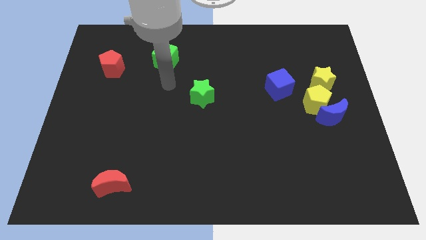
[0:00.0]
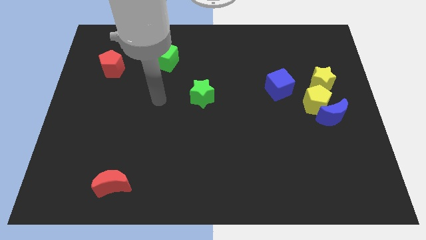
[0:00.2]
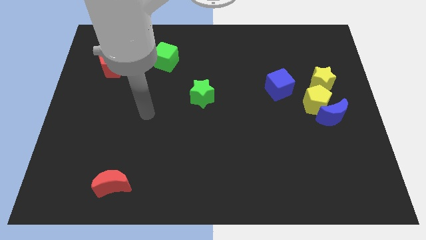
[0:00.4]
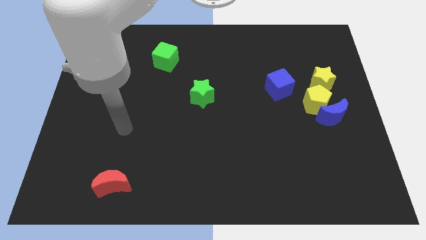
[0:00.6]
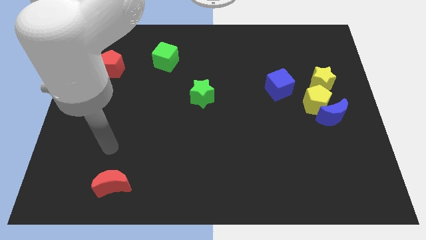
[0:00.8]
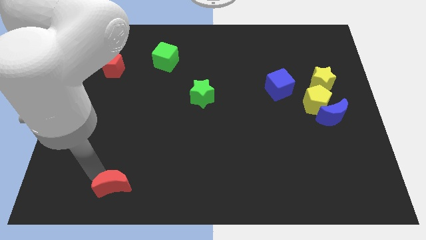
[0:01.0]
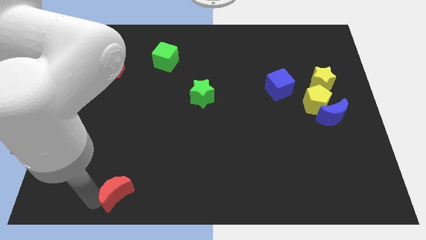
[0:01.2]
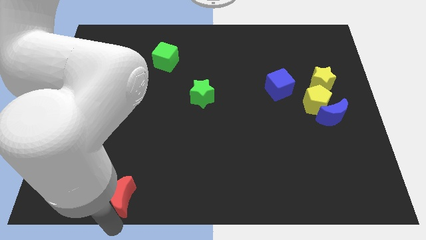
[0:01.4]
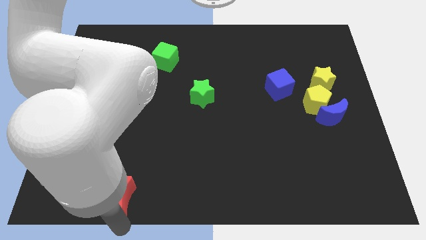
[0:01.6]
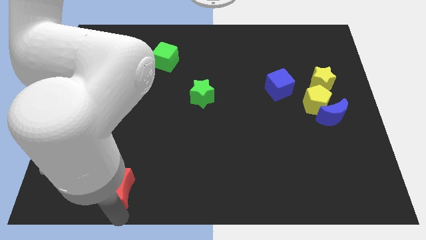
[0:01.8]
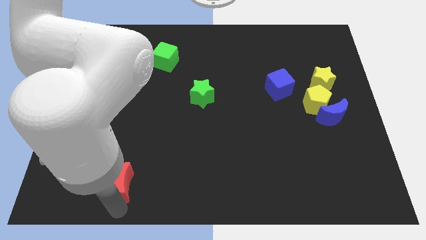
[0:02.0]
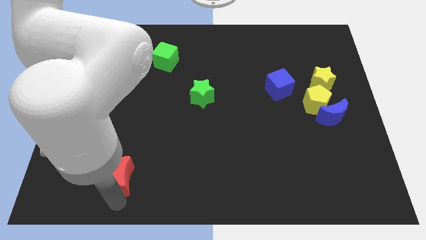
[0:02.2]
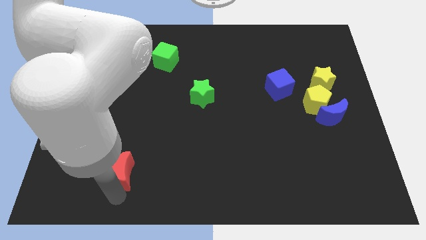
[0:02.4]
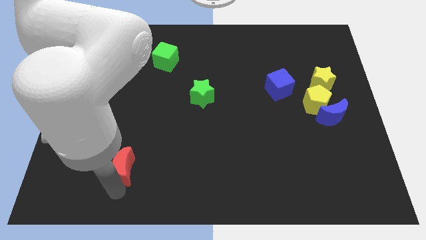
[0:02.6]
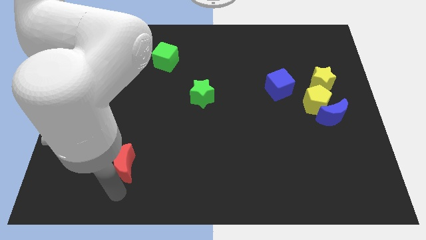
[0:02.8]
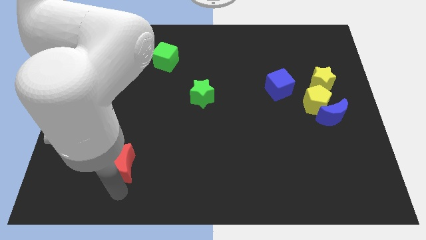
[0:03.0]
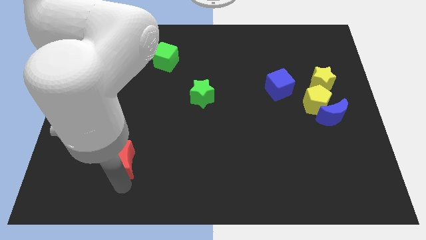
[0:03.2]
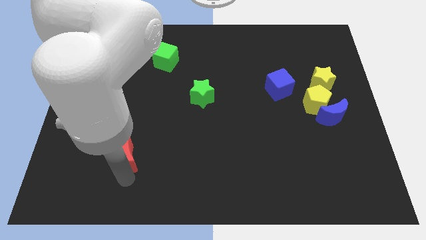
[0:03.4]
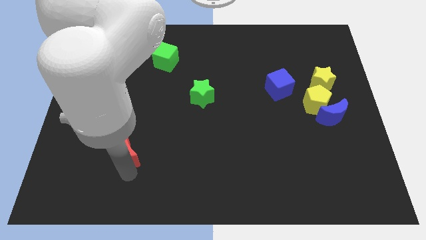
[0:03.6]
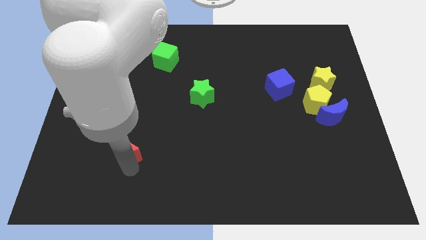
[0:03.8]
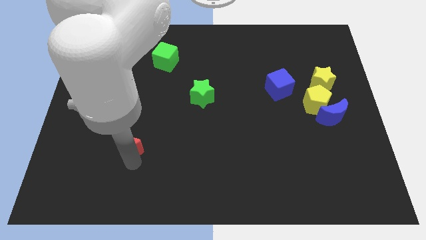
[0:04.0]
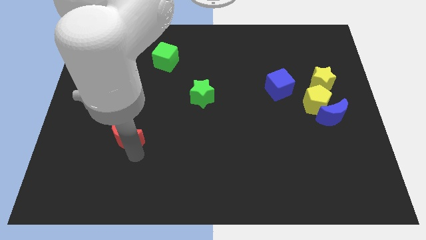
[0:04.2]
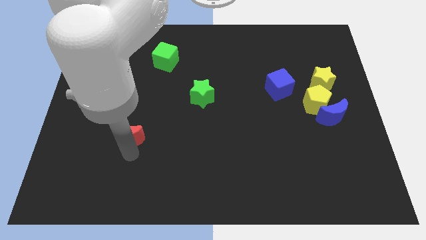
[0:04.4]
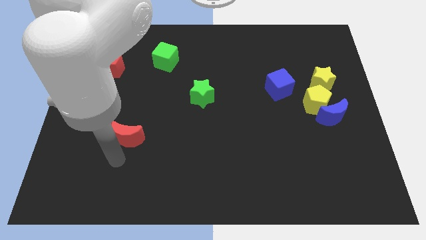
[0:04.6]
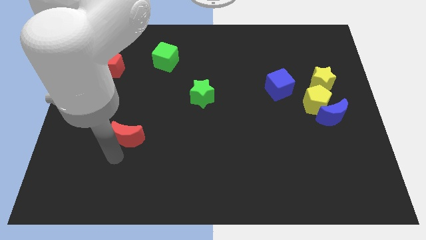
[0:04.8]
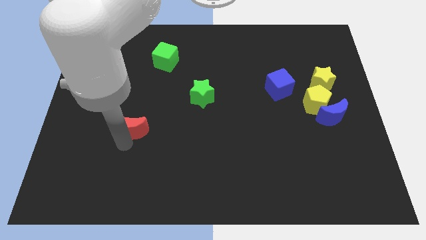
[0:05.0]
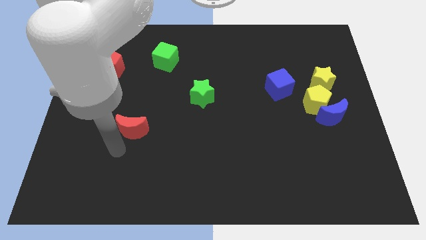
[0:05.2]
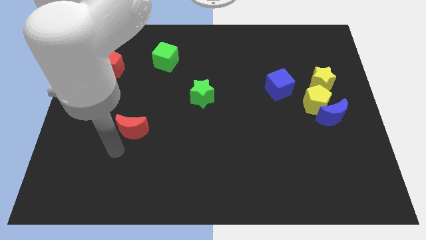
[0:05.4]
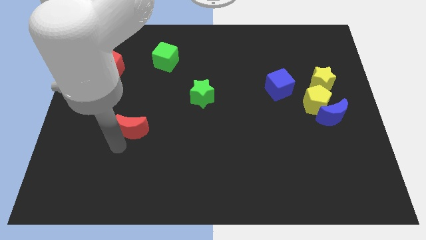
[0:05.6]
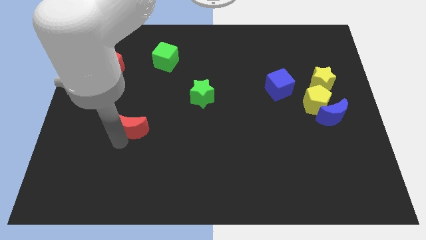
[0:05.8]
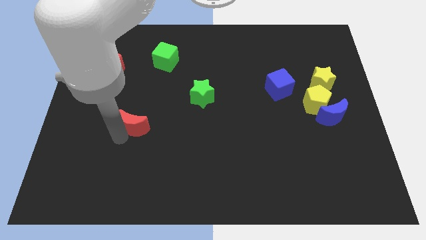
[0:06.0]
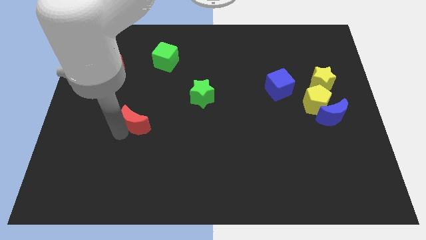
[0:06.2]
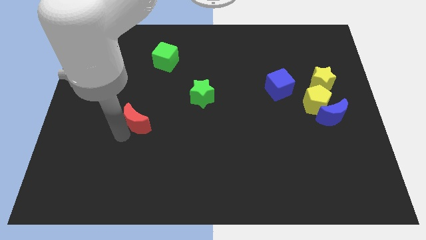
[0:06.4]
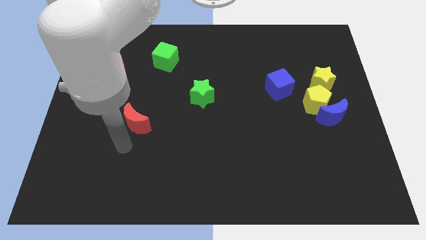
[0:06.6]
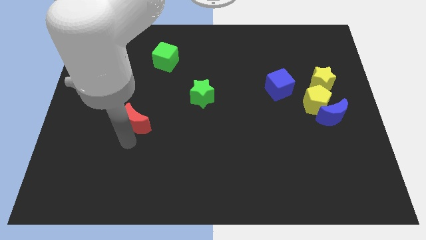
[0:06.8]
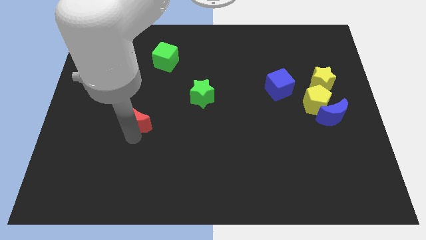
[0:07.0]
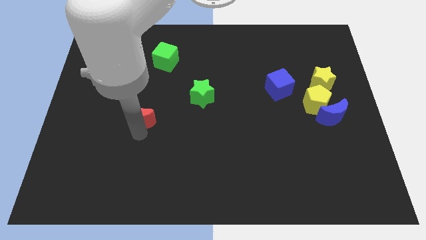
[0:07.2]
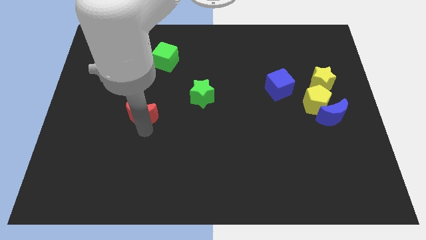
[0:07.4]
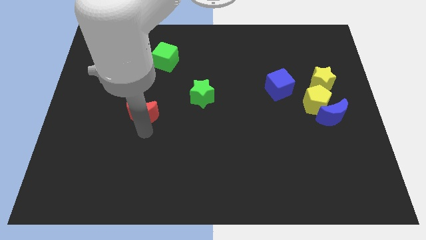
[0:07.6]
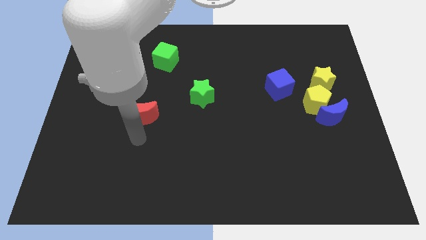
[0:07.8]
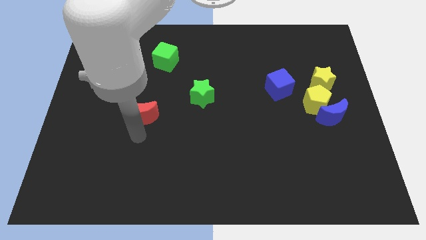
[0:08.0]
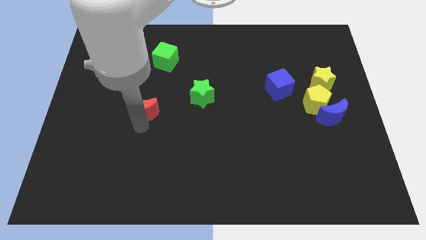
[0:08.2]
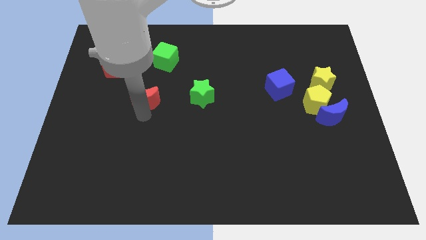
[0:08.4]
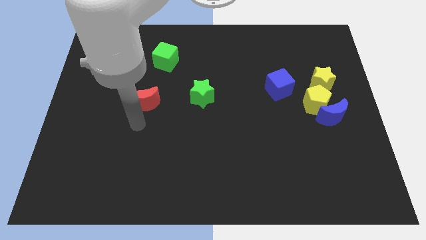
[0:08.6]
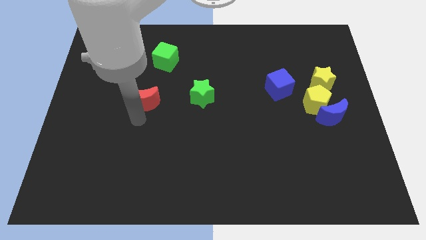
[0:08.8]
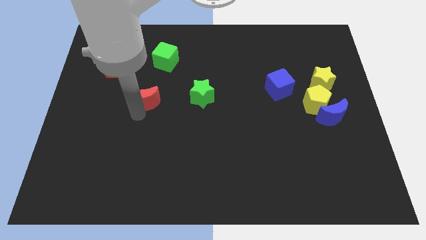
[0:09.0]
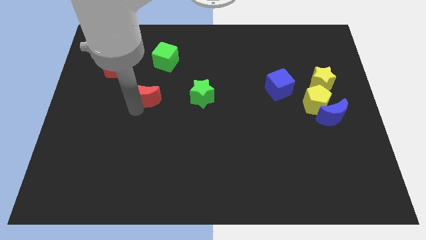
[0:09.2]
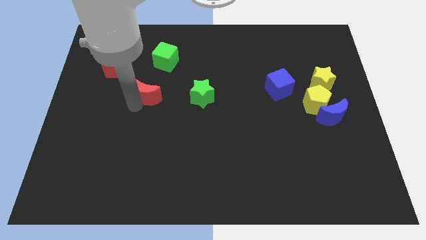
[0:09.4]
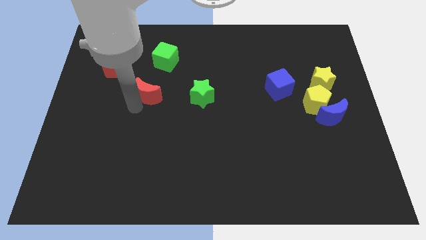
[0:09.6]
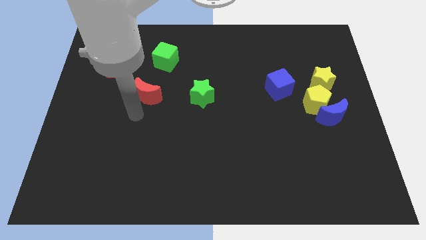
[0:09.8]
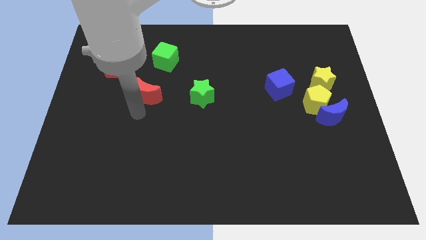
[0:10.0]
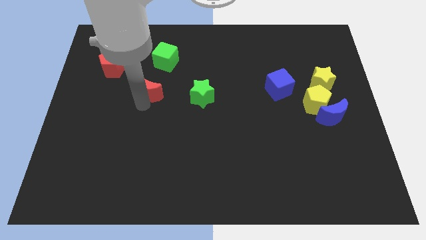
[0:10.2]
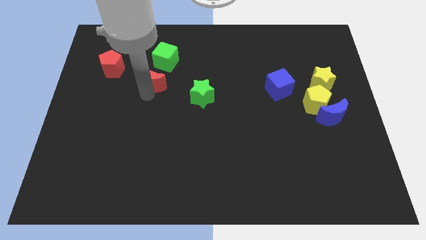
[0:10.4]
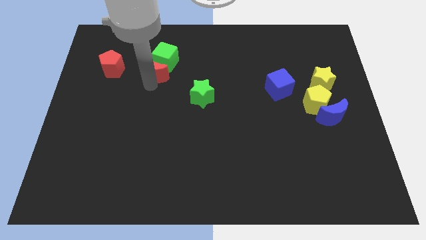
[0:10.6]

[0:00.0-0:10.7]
move the red moon next to the green cube

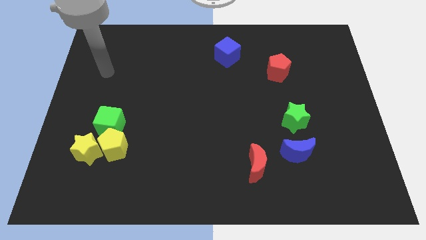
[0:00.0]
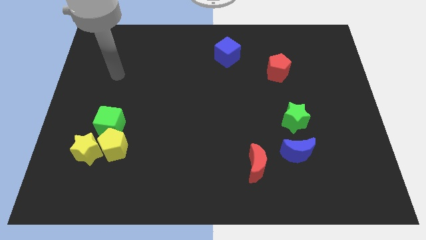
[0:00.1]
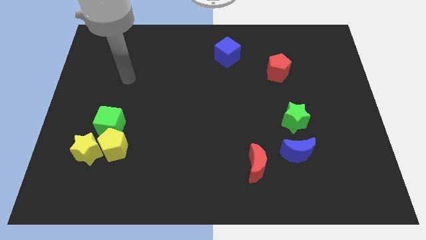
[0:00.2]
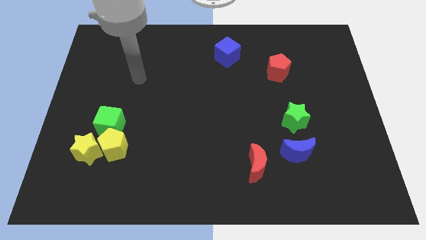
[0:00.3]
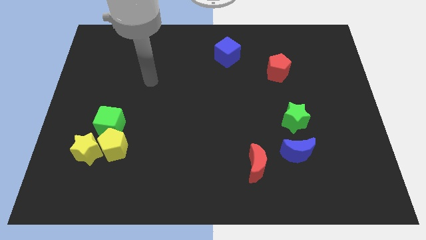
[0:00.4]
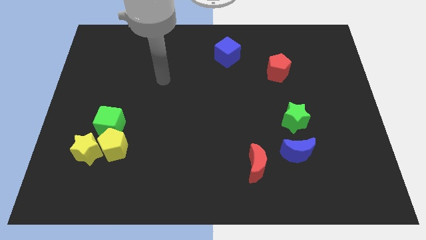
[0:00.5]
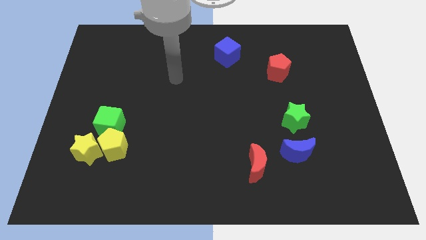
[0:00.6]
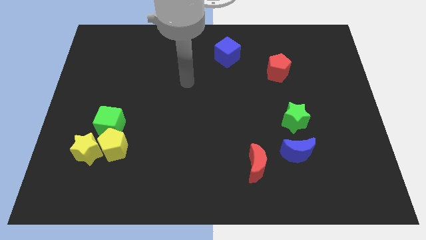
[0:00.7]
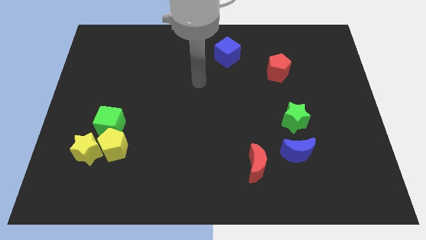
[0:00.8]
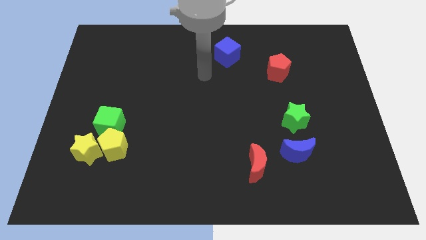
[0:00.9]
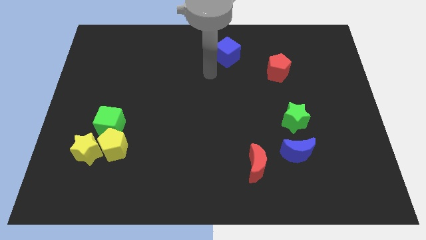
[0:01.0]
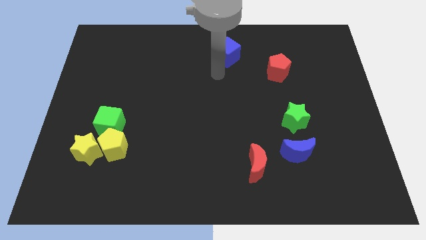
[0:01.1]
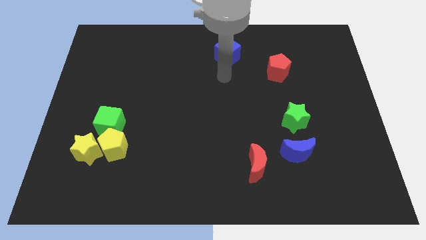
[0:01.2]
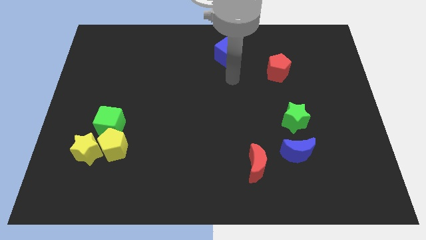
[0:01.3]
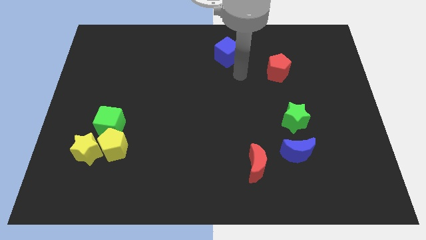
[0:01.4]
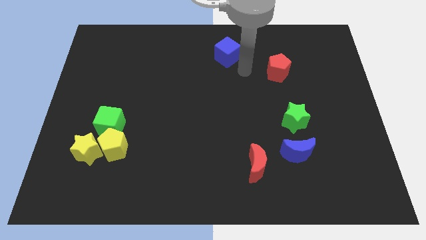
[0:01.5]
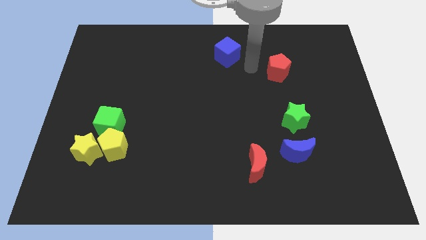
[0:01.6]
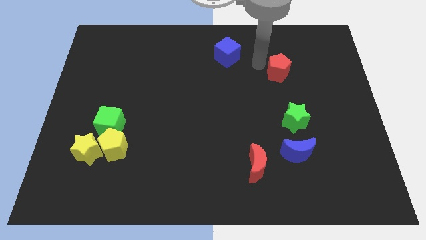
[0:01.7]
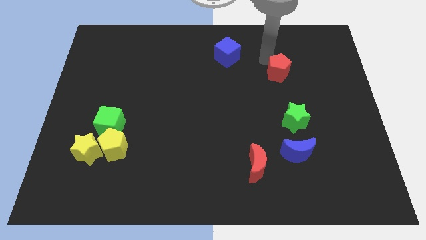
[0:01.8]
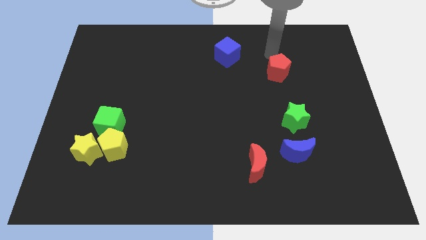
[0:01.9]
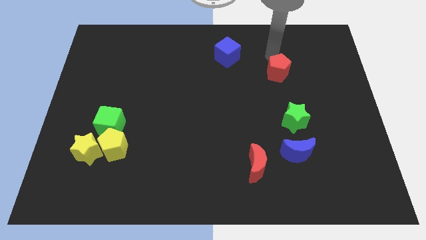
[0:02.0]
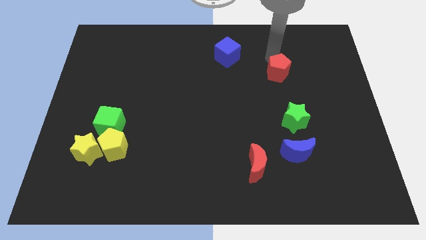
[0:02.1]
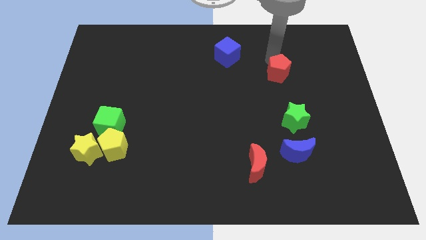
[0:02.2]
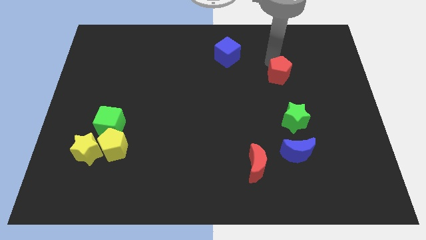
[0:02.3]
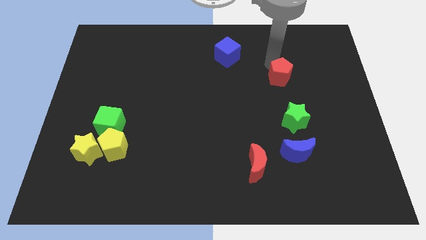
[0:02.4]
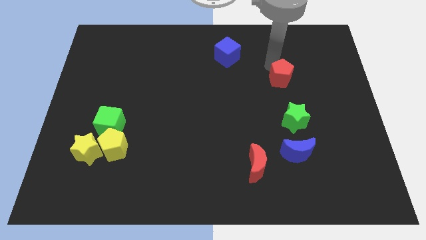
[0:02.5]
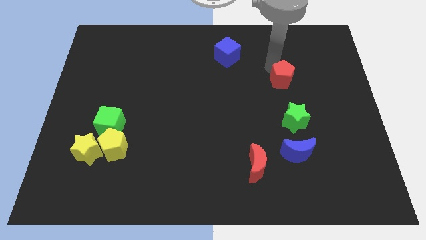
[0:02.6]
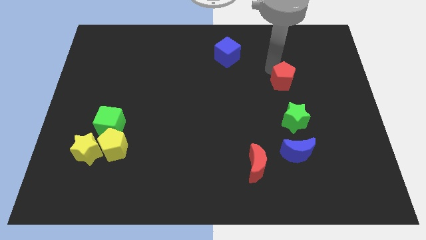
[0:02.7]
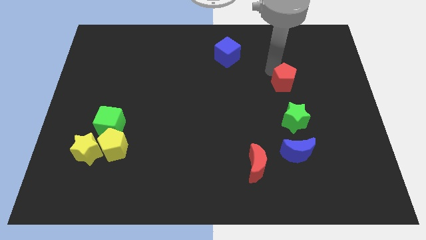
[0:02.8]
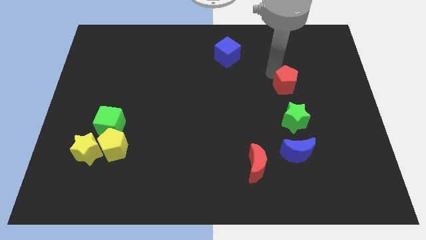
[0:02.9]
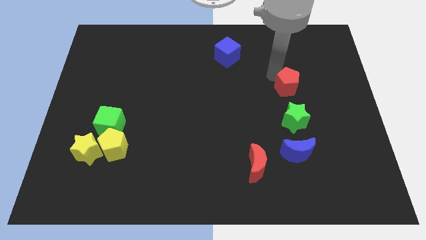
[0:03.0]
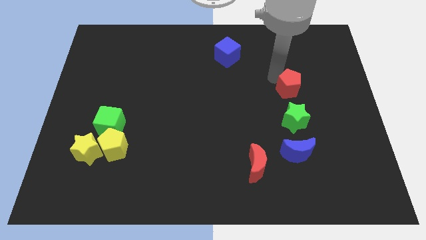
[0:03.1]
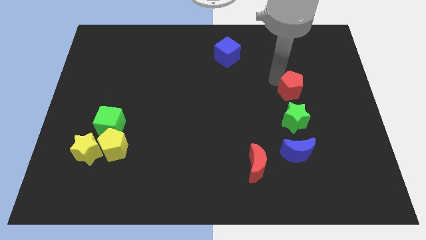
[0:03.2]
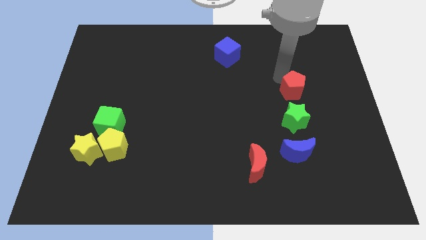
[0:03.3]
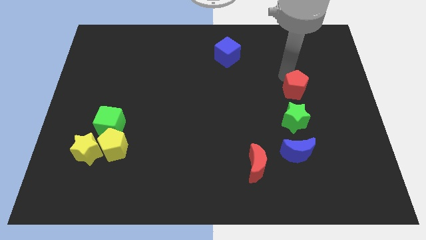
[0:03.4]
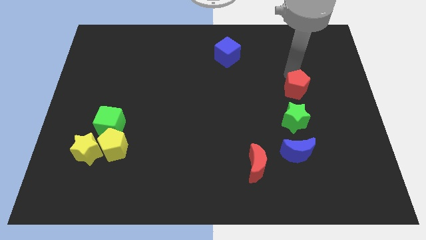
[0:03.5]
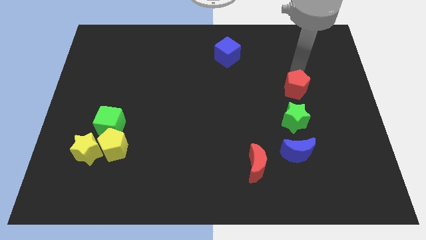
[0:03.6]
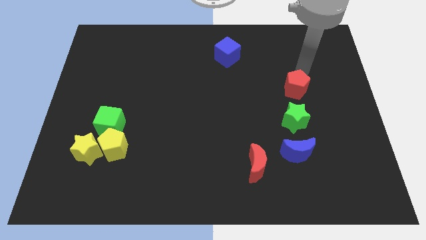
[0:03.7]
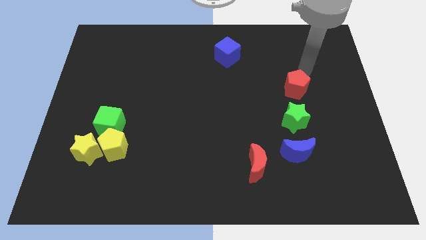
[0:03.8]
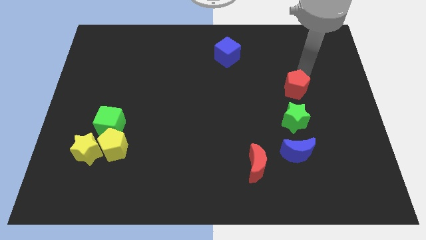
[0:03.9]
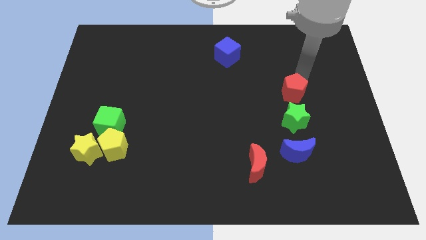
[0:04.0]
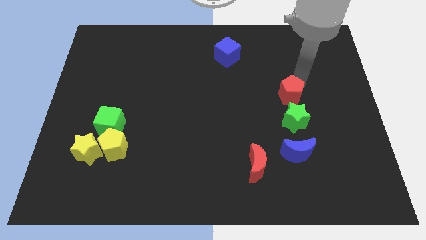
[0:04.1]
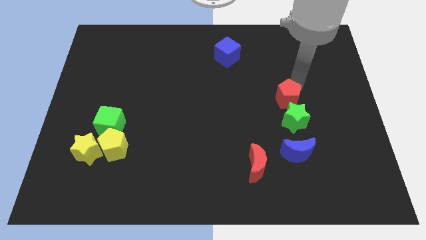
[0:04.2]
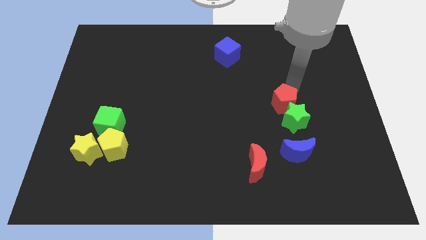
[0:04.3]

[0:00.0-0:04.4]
push the red pentagon next to the green star
